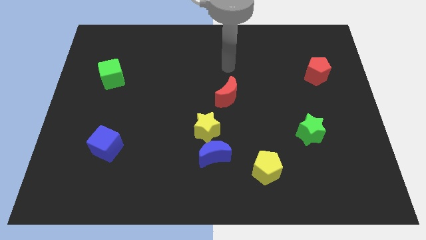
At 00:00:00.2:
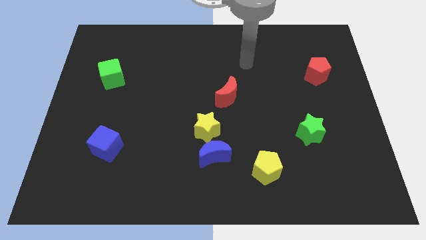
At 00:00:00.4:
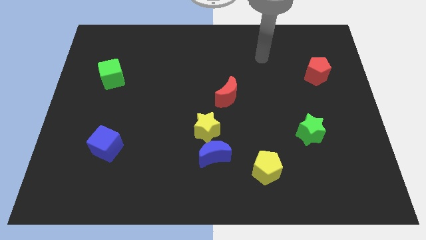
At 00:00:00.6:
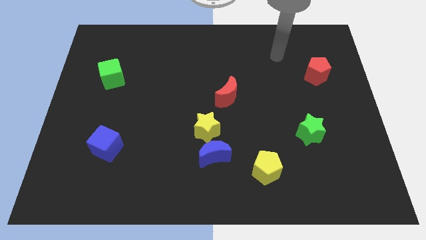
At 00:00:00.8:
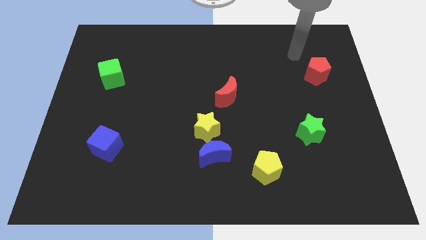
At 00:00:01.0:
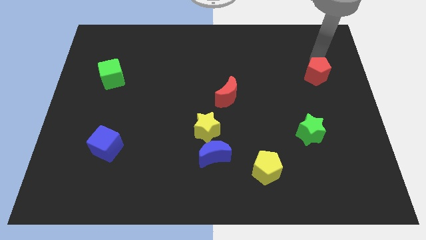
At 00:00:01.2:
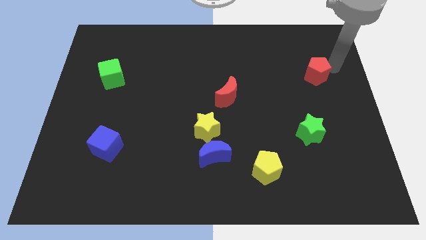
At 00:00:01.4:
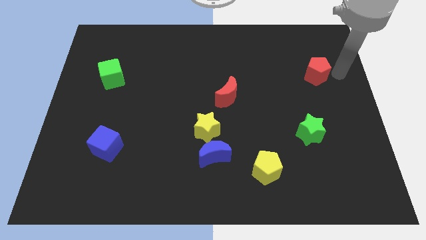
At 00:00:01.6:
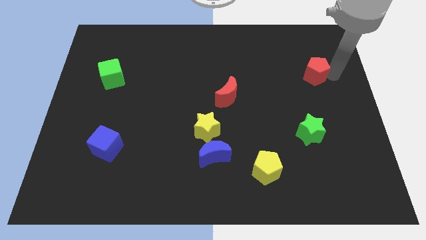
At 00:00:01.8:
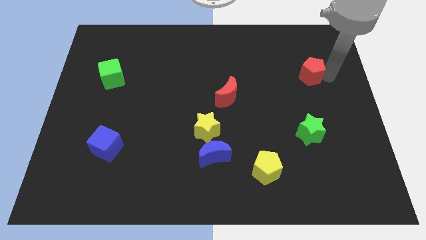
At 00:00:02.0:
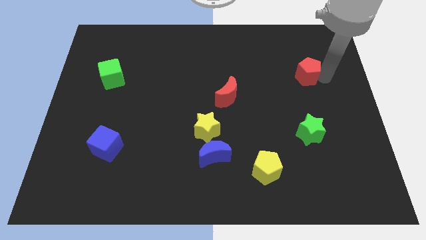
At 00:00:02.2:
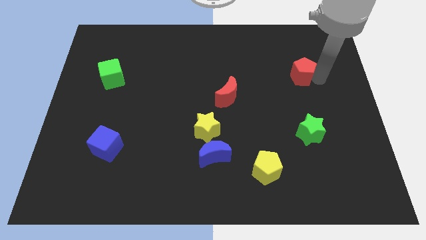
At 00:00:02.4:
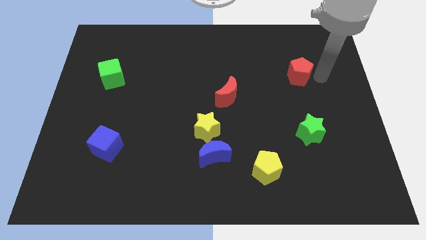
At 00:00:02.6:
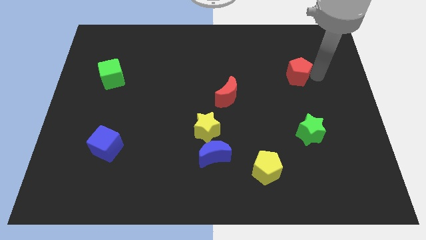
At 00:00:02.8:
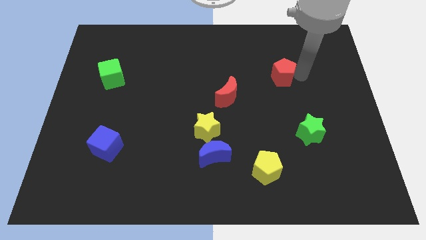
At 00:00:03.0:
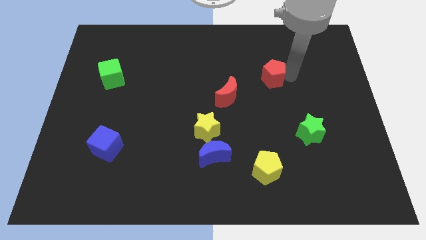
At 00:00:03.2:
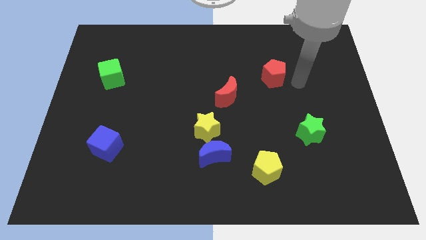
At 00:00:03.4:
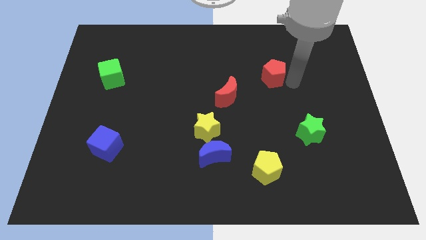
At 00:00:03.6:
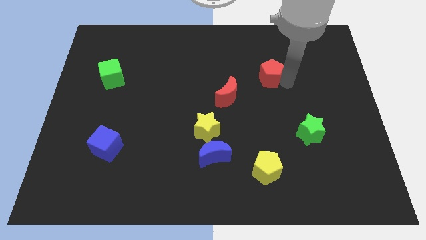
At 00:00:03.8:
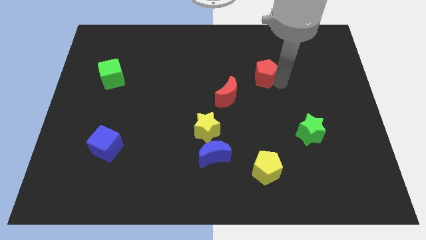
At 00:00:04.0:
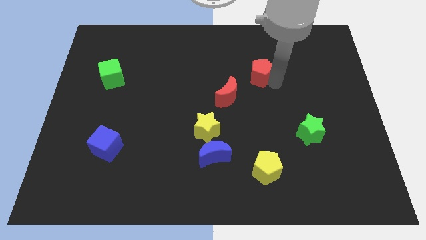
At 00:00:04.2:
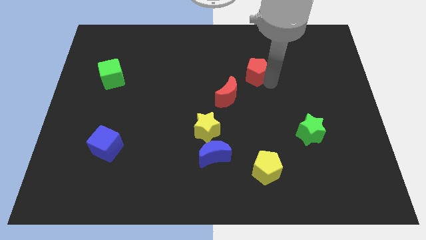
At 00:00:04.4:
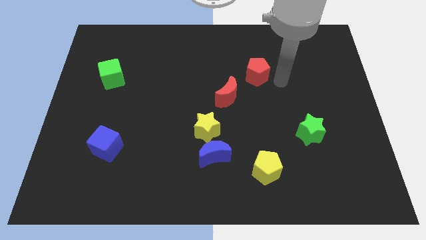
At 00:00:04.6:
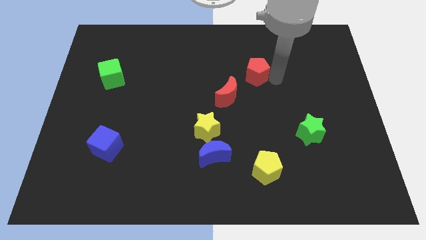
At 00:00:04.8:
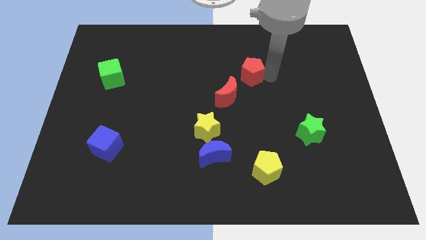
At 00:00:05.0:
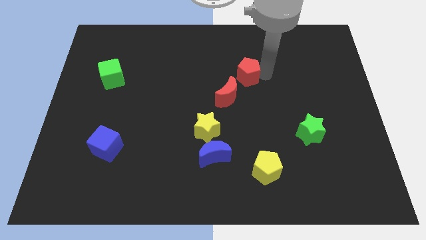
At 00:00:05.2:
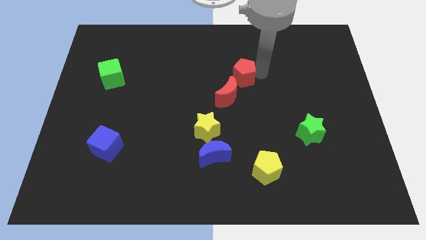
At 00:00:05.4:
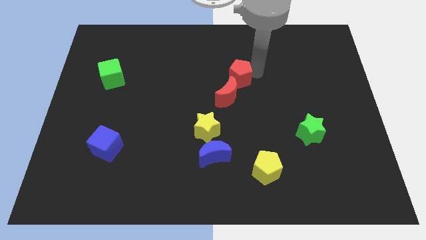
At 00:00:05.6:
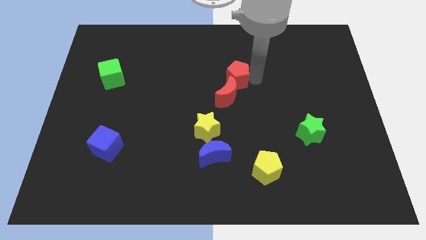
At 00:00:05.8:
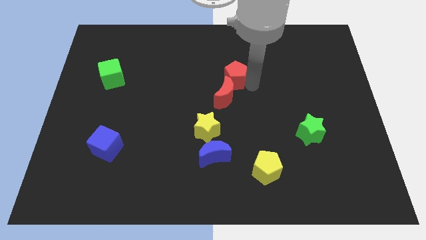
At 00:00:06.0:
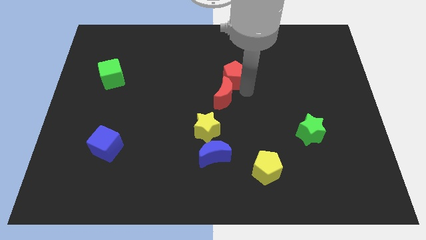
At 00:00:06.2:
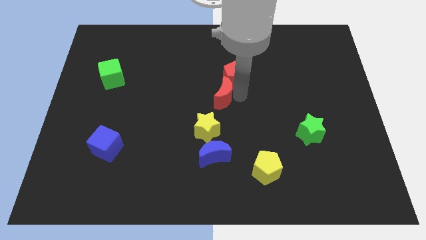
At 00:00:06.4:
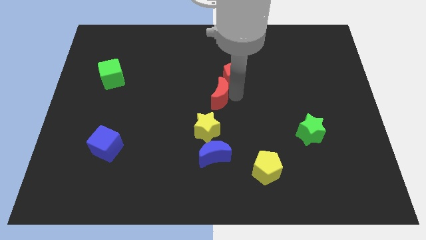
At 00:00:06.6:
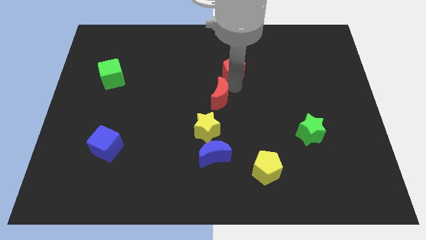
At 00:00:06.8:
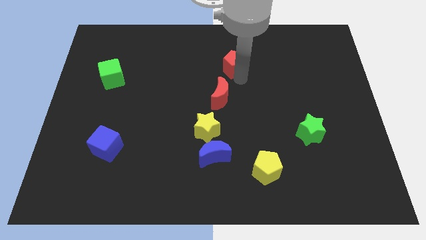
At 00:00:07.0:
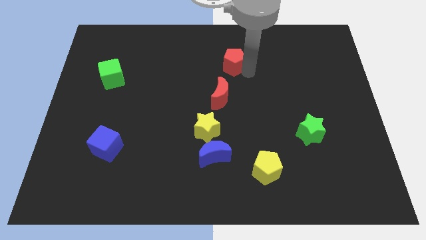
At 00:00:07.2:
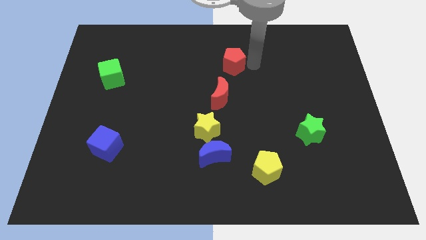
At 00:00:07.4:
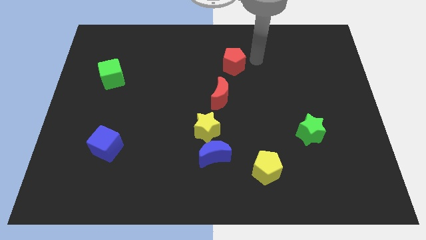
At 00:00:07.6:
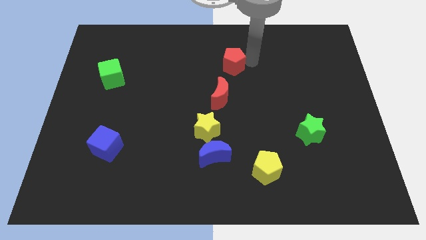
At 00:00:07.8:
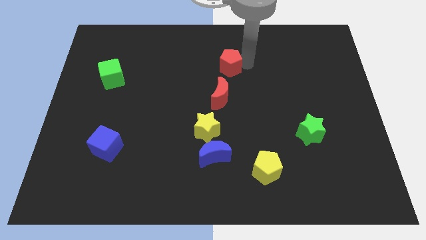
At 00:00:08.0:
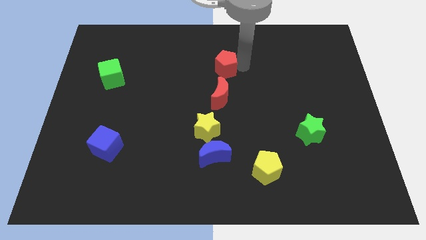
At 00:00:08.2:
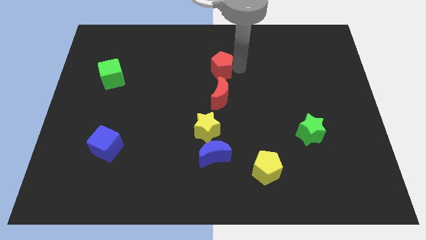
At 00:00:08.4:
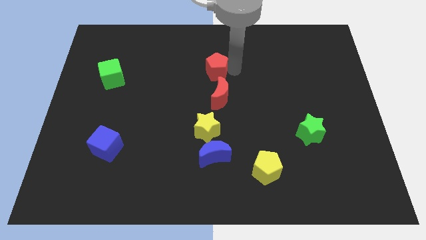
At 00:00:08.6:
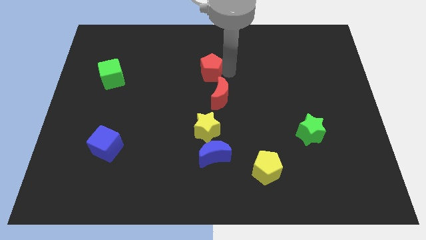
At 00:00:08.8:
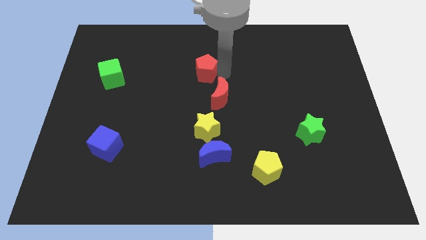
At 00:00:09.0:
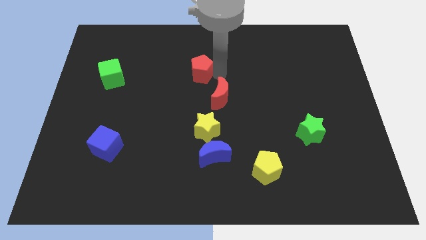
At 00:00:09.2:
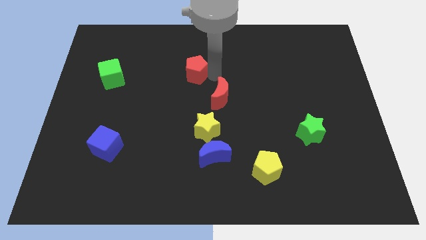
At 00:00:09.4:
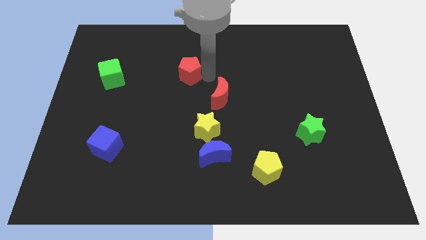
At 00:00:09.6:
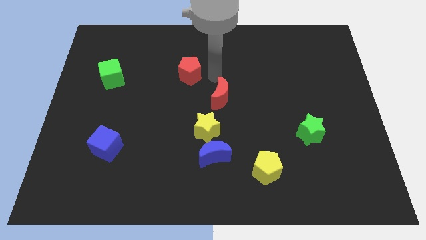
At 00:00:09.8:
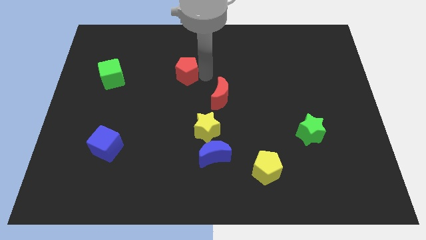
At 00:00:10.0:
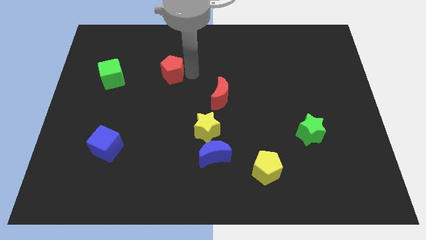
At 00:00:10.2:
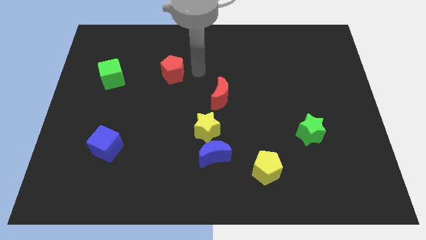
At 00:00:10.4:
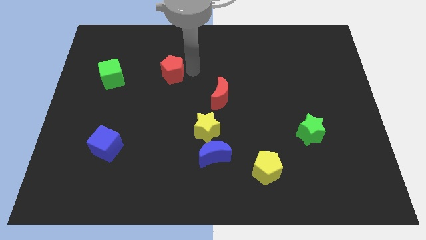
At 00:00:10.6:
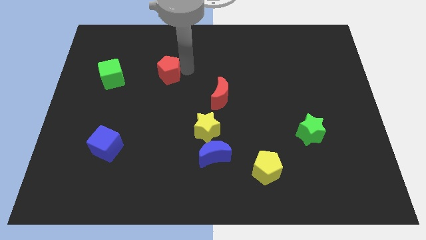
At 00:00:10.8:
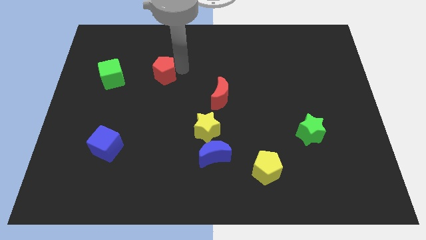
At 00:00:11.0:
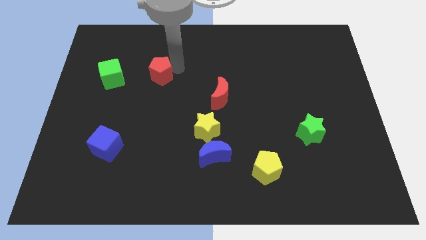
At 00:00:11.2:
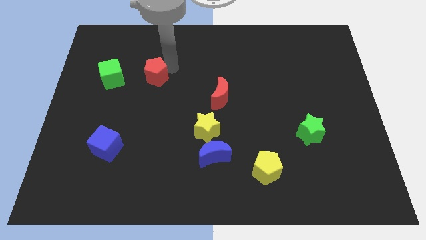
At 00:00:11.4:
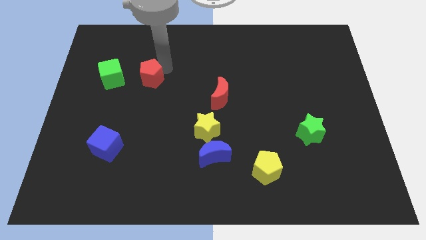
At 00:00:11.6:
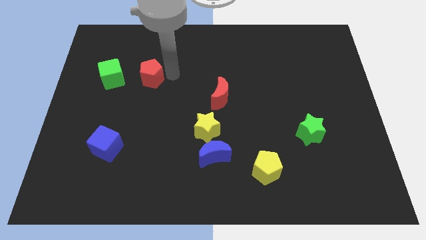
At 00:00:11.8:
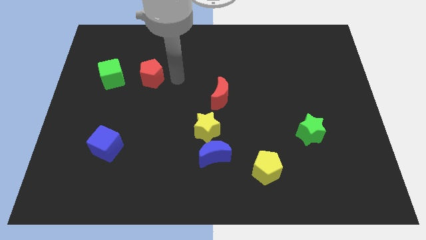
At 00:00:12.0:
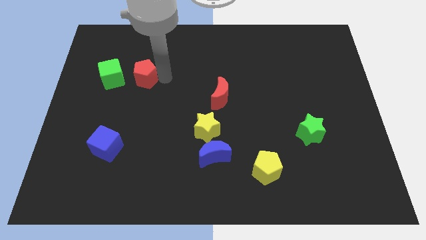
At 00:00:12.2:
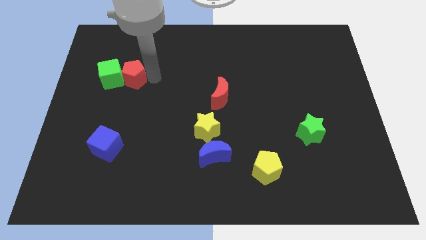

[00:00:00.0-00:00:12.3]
move the red pentagon close to the green cube

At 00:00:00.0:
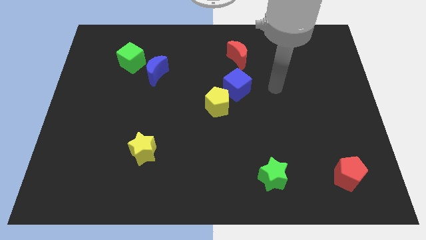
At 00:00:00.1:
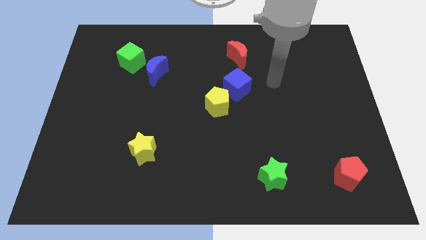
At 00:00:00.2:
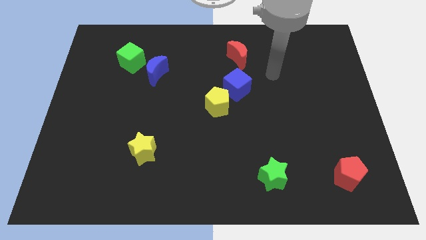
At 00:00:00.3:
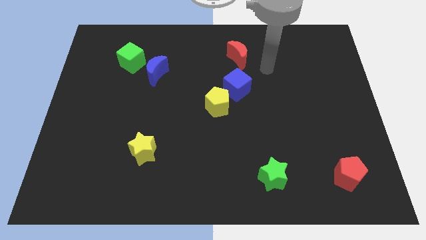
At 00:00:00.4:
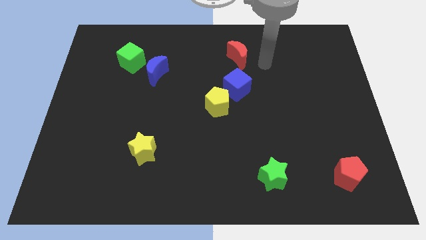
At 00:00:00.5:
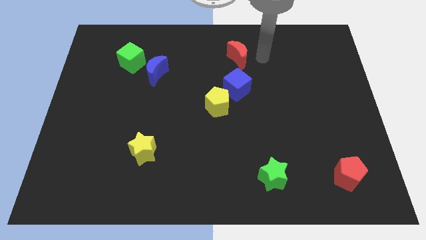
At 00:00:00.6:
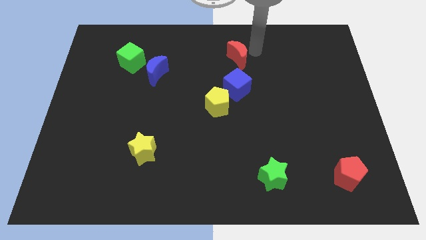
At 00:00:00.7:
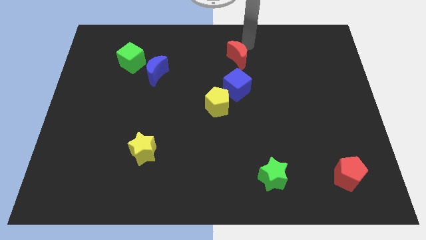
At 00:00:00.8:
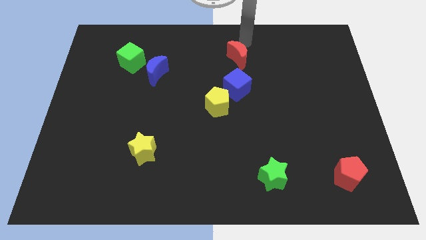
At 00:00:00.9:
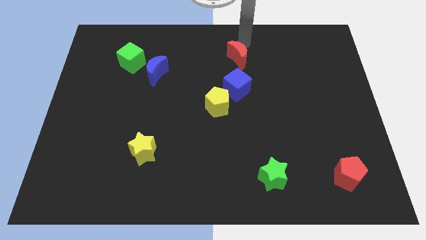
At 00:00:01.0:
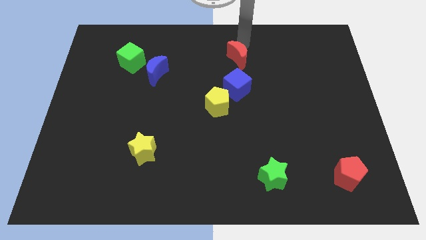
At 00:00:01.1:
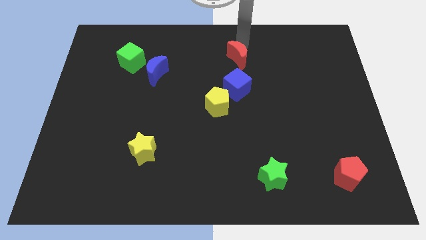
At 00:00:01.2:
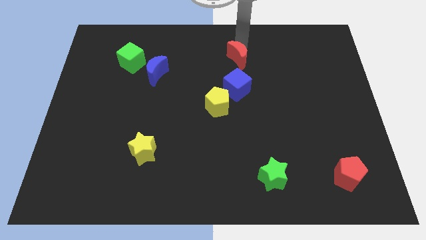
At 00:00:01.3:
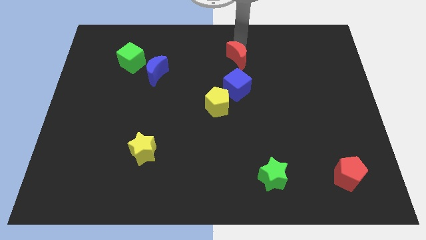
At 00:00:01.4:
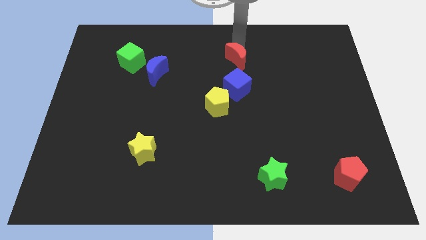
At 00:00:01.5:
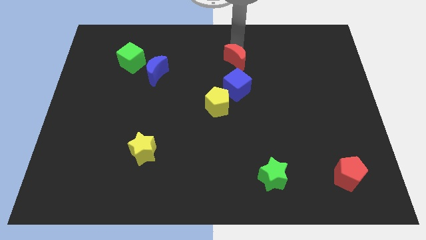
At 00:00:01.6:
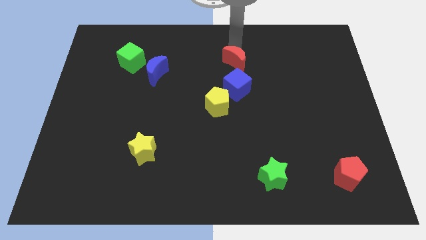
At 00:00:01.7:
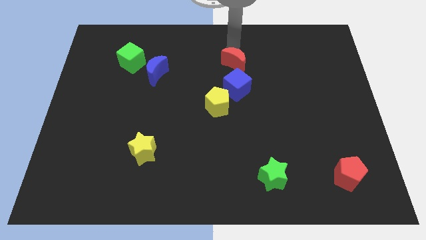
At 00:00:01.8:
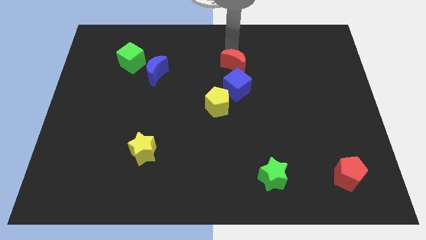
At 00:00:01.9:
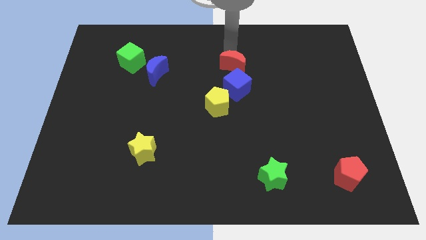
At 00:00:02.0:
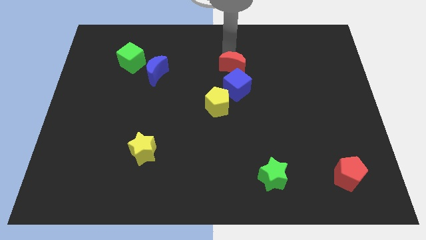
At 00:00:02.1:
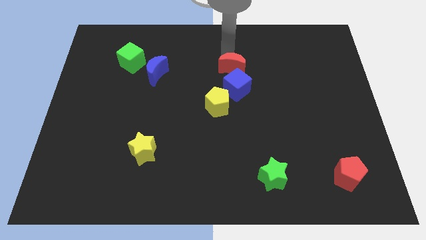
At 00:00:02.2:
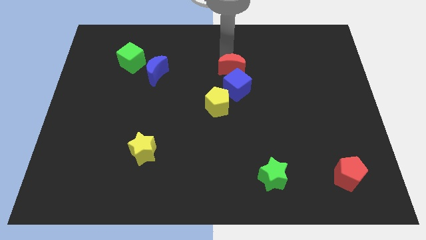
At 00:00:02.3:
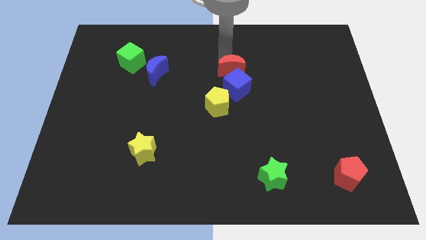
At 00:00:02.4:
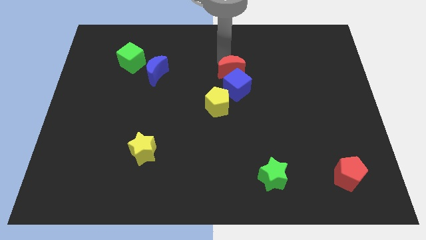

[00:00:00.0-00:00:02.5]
move the red moon next to the blue cube
